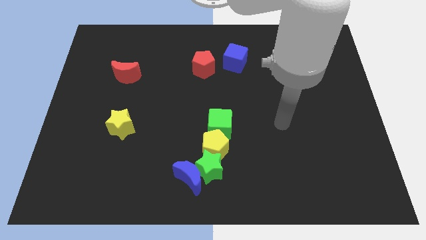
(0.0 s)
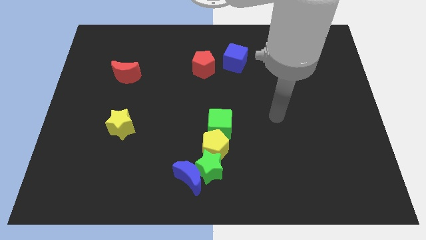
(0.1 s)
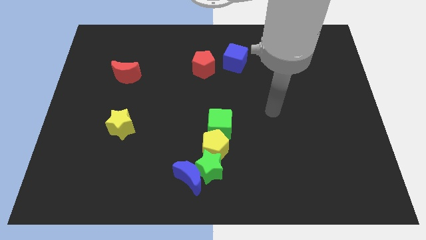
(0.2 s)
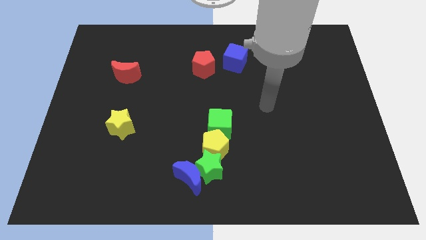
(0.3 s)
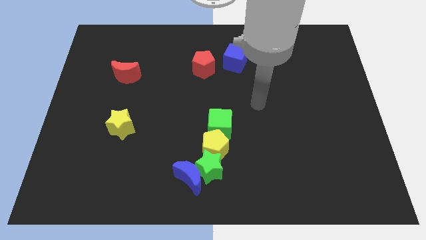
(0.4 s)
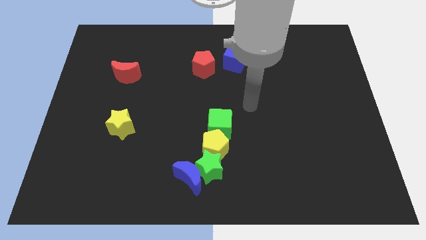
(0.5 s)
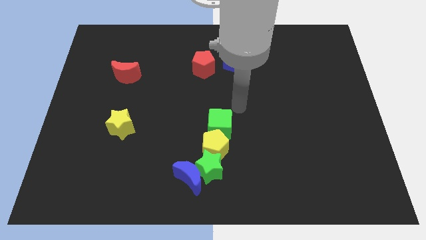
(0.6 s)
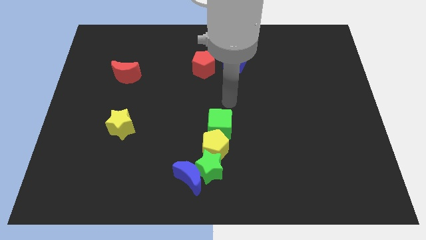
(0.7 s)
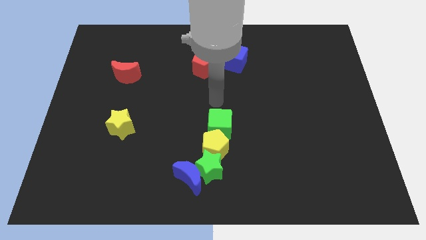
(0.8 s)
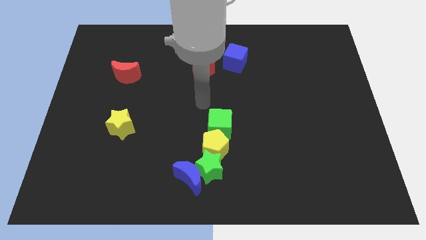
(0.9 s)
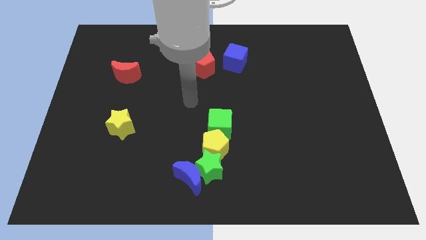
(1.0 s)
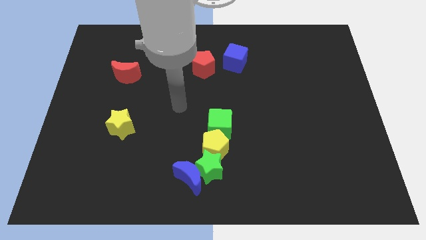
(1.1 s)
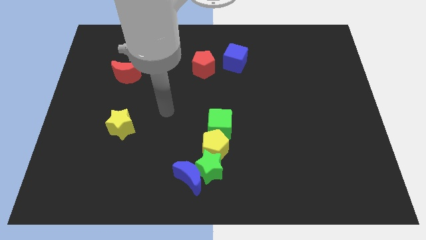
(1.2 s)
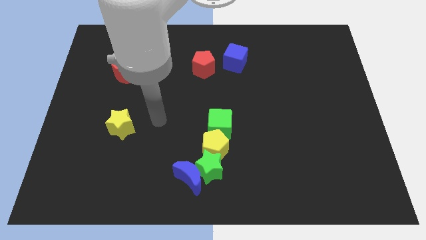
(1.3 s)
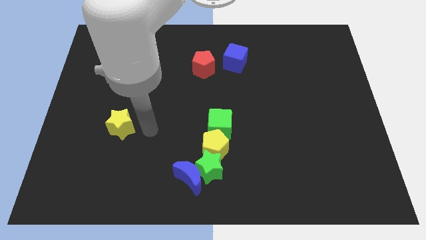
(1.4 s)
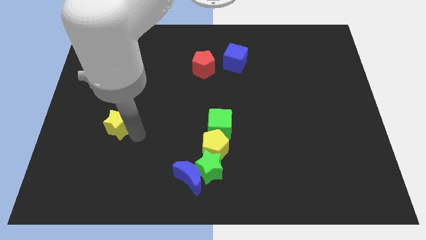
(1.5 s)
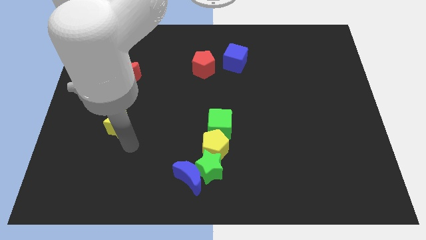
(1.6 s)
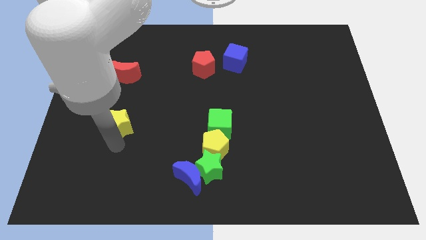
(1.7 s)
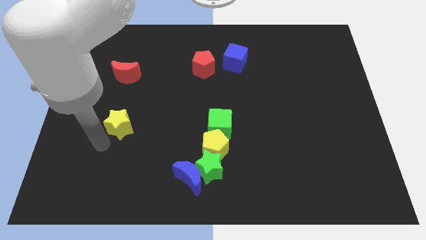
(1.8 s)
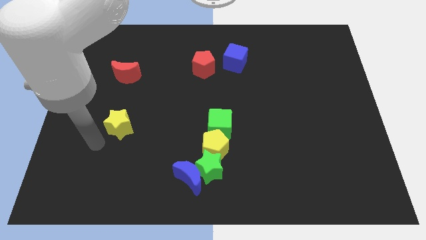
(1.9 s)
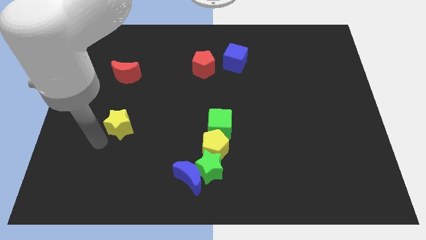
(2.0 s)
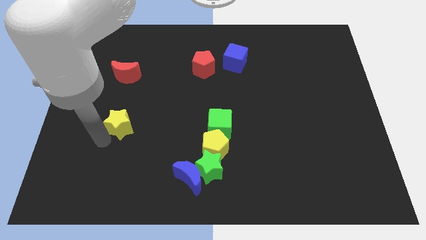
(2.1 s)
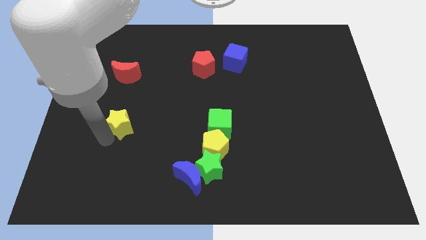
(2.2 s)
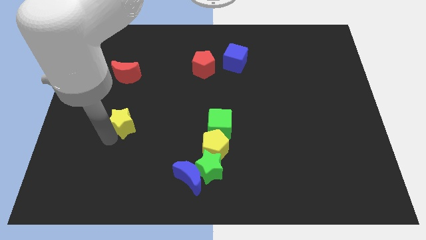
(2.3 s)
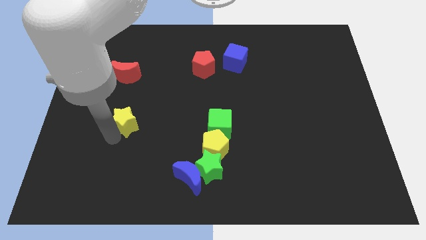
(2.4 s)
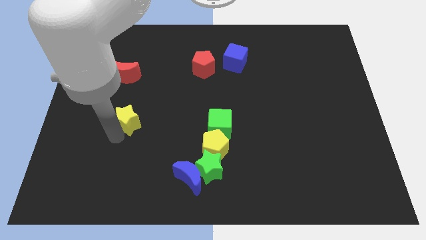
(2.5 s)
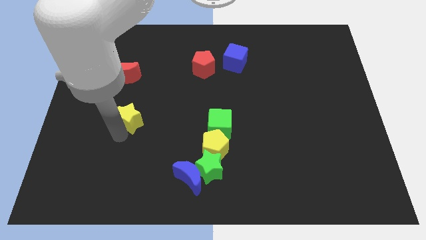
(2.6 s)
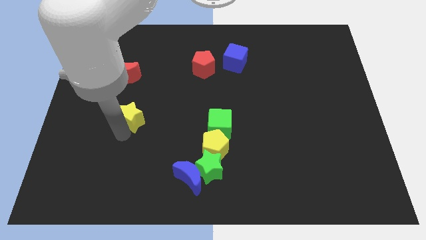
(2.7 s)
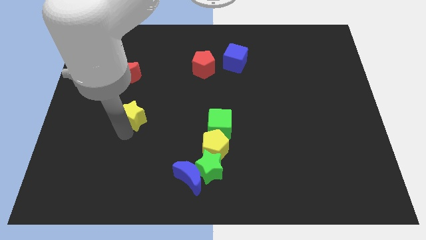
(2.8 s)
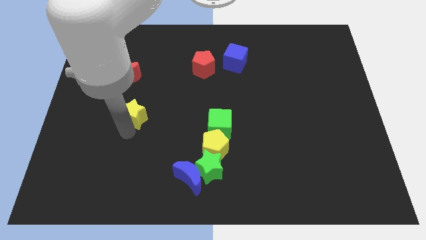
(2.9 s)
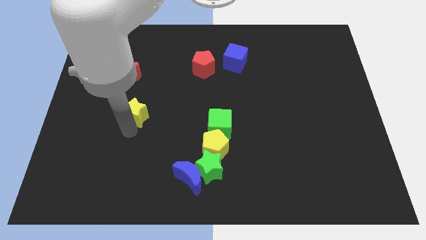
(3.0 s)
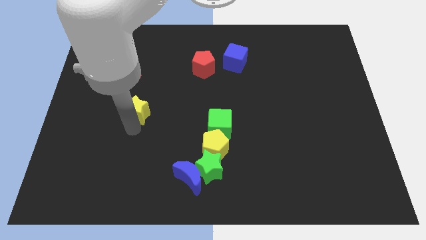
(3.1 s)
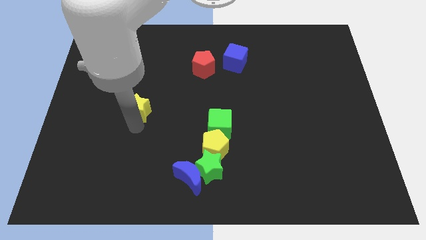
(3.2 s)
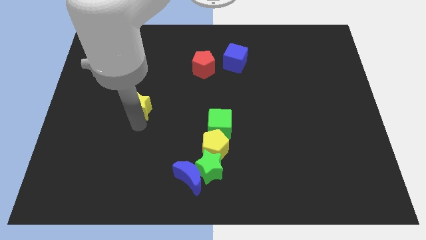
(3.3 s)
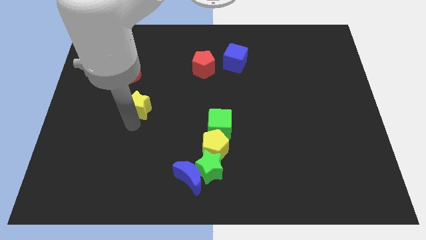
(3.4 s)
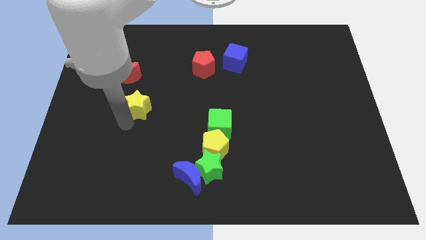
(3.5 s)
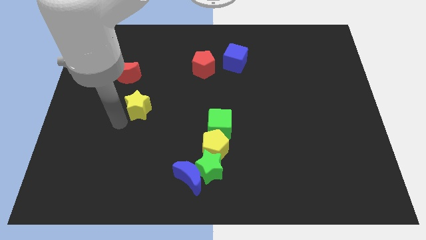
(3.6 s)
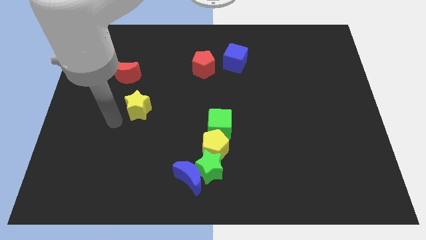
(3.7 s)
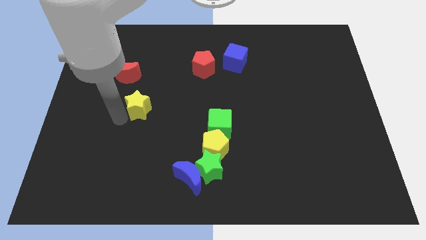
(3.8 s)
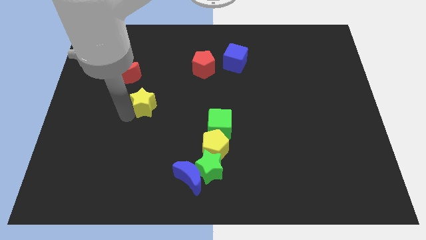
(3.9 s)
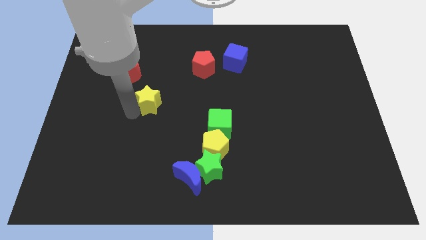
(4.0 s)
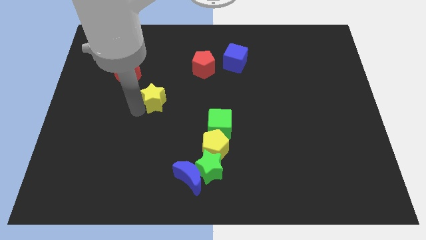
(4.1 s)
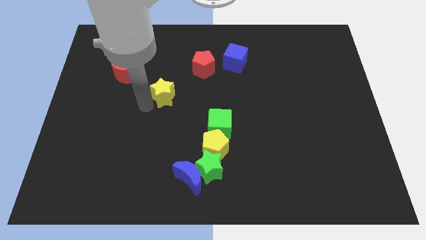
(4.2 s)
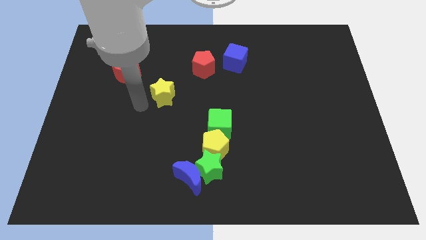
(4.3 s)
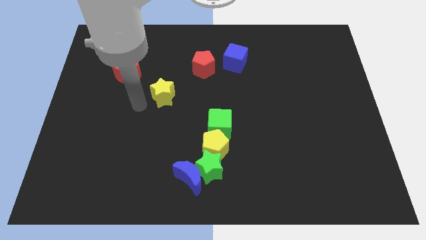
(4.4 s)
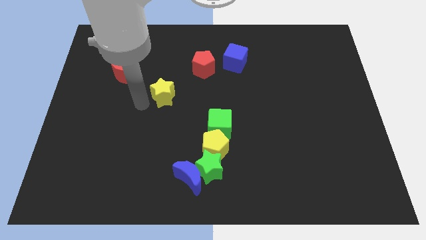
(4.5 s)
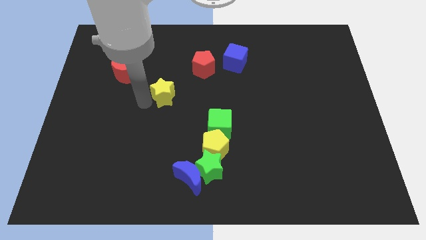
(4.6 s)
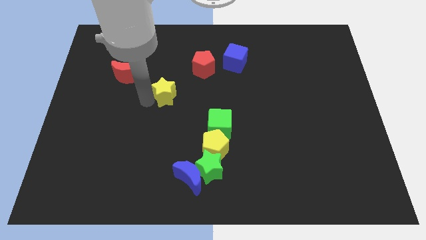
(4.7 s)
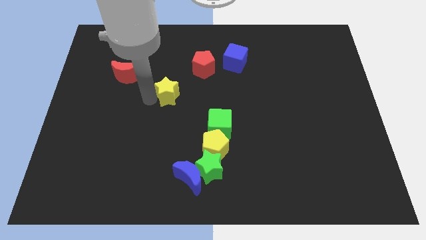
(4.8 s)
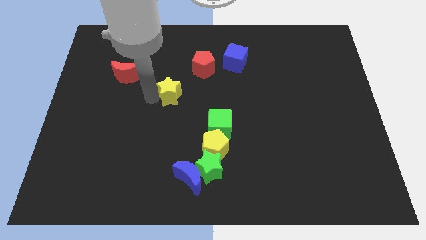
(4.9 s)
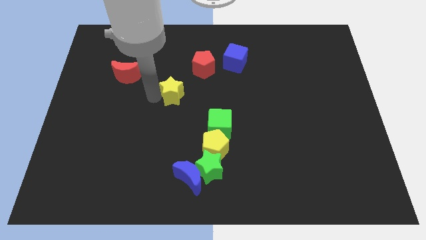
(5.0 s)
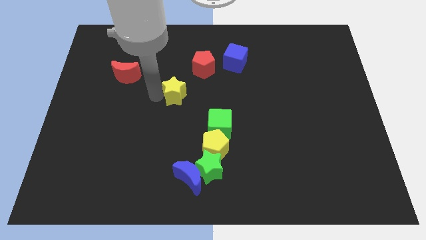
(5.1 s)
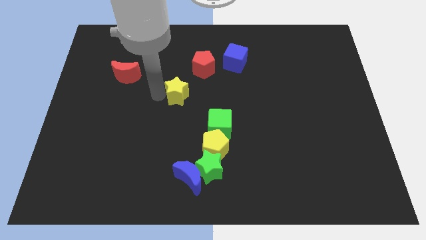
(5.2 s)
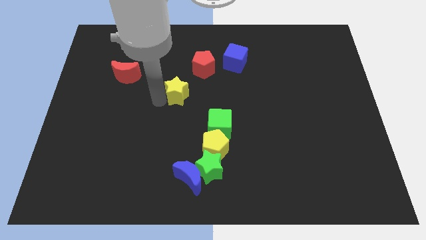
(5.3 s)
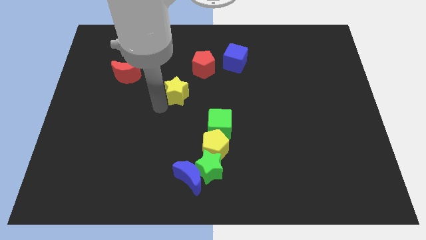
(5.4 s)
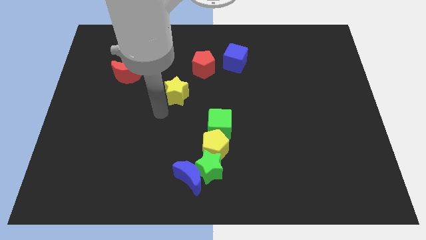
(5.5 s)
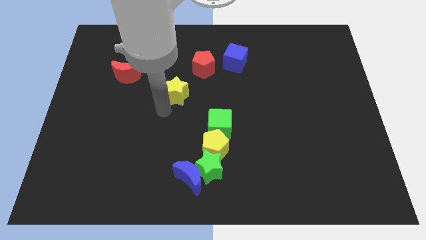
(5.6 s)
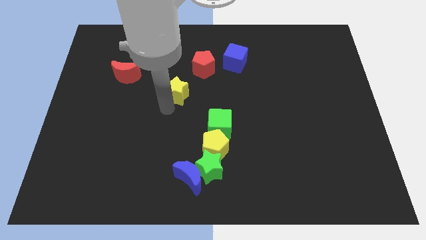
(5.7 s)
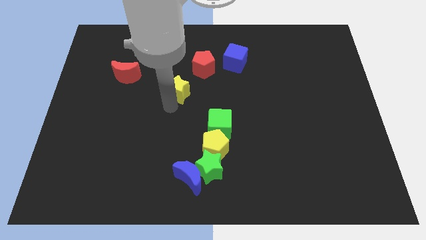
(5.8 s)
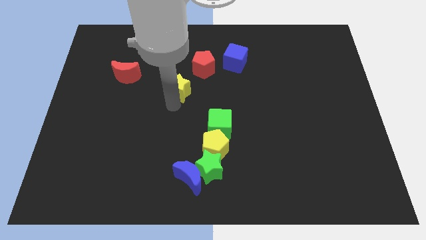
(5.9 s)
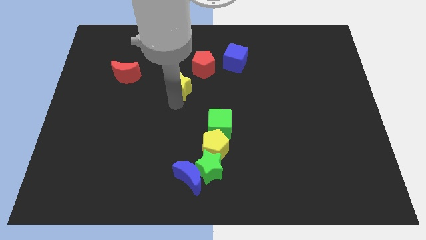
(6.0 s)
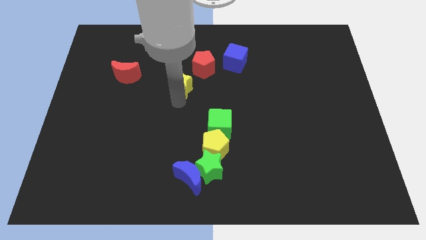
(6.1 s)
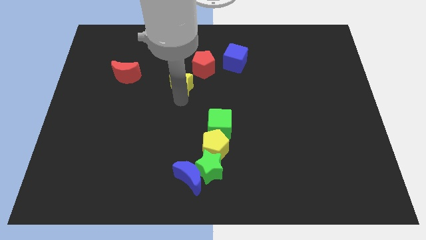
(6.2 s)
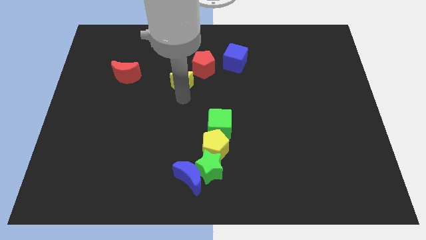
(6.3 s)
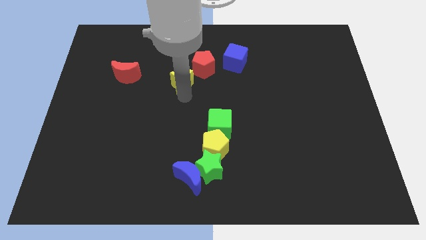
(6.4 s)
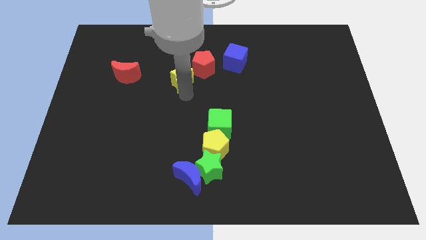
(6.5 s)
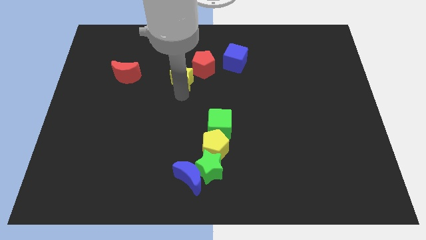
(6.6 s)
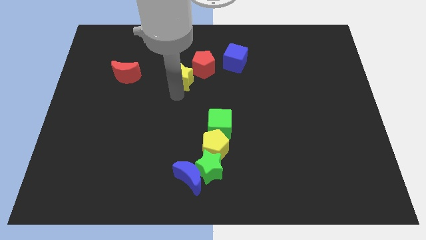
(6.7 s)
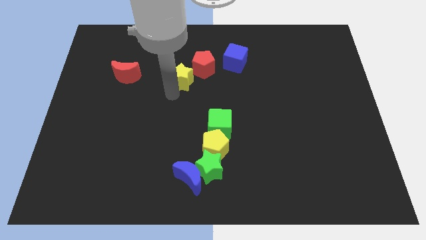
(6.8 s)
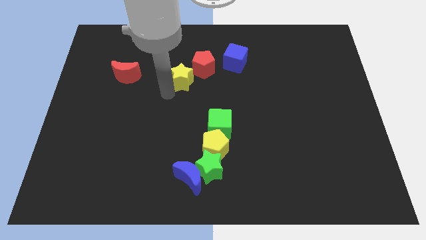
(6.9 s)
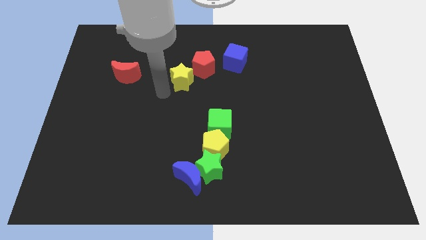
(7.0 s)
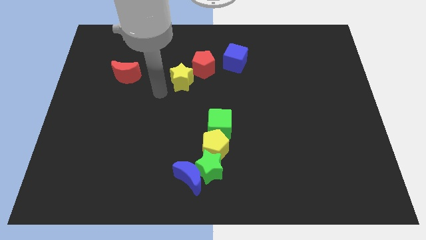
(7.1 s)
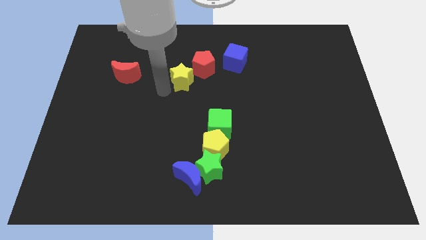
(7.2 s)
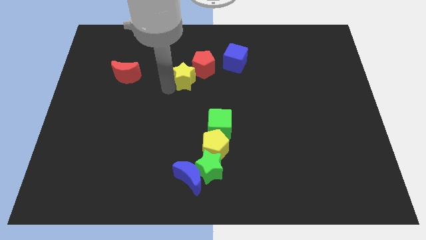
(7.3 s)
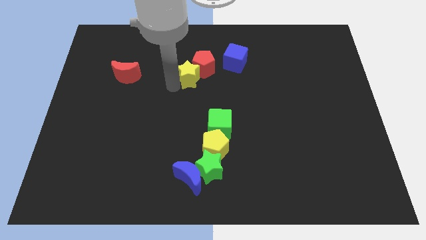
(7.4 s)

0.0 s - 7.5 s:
put the yellow star next to the red pentagon
